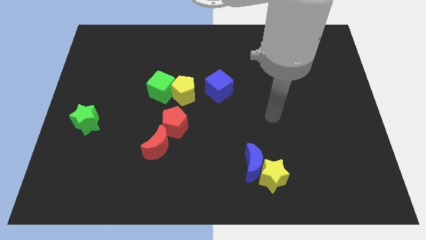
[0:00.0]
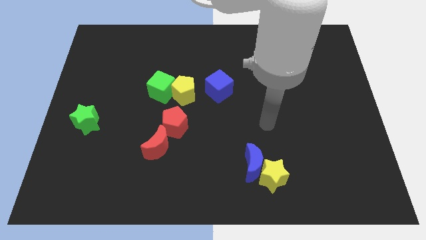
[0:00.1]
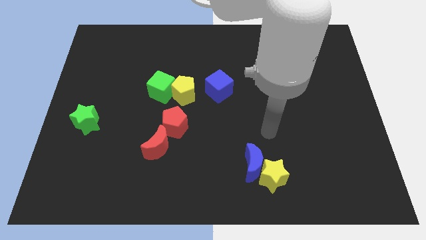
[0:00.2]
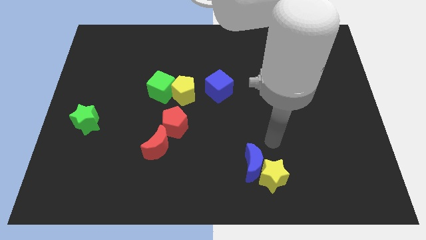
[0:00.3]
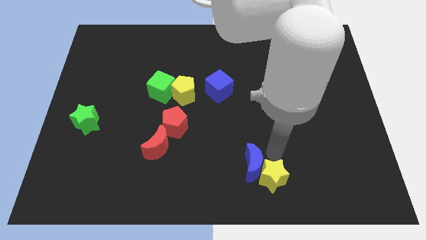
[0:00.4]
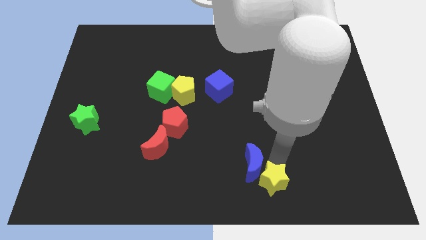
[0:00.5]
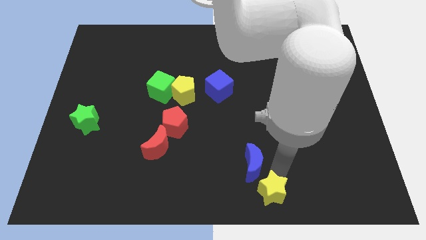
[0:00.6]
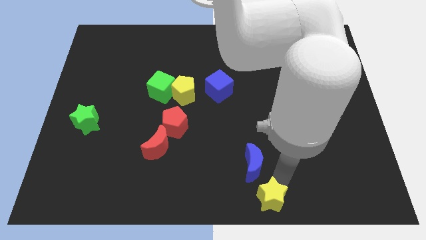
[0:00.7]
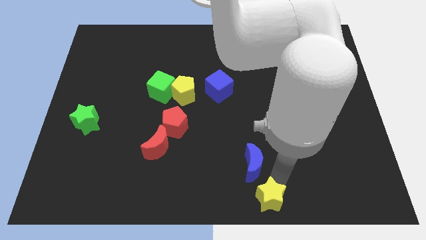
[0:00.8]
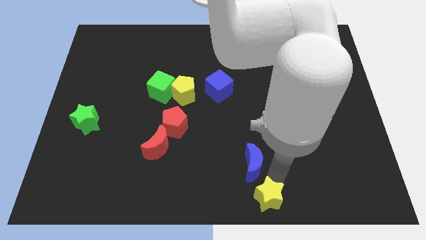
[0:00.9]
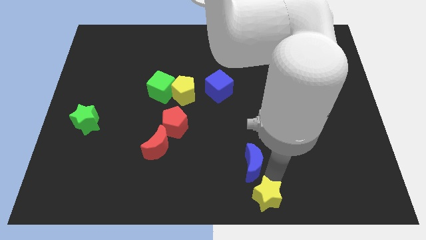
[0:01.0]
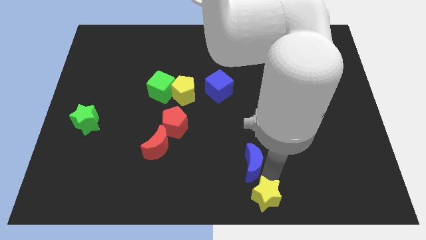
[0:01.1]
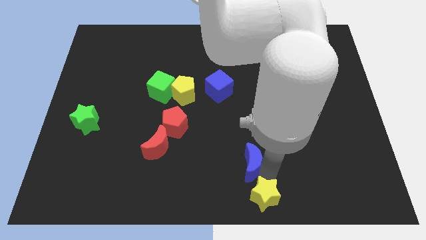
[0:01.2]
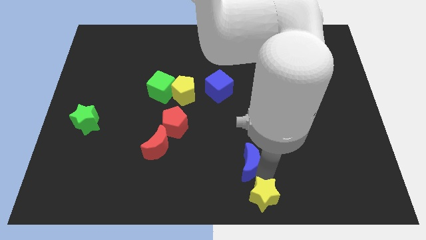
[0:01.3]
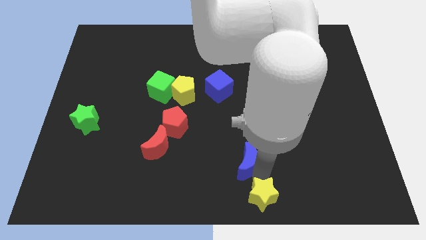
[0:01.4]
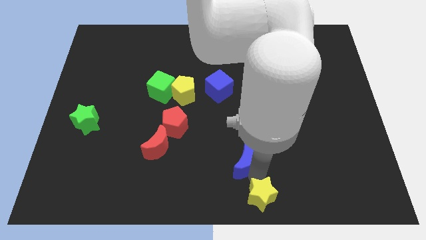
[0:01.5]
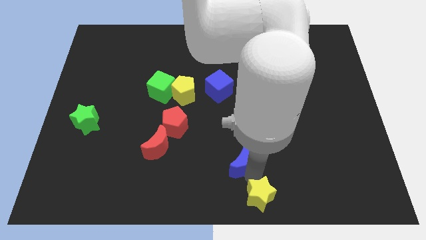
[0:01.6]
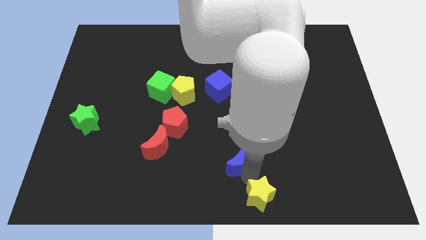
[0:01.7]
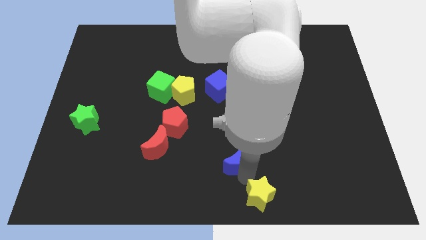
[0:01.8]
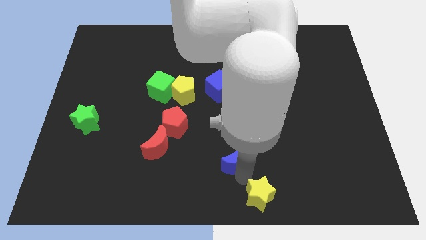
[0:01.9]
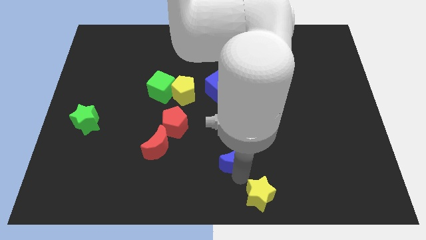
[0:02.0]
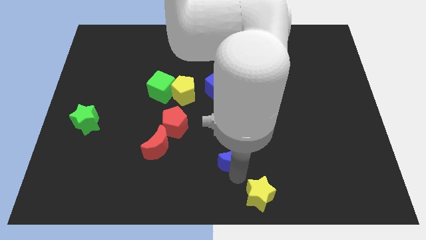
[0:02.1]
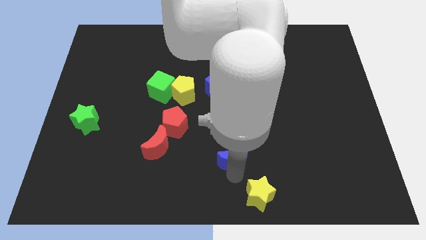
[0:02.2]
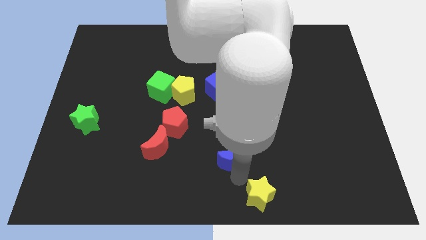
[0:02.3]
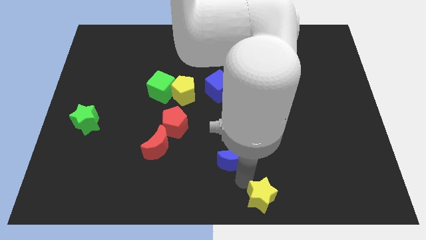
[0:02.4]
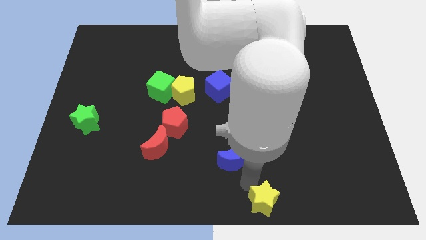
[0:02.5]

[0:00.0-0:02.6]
separate the blue moon from the yellow star

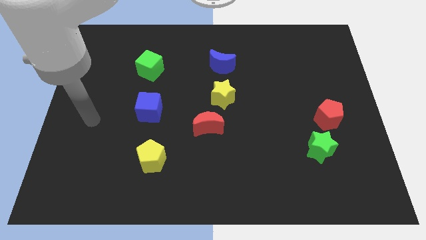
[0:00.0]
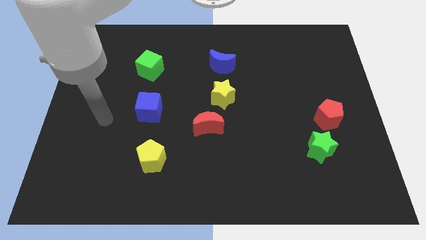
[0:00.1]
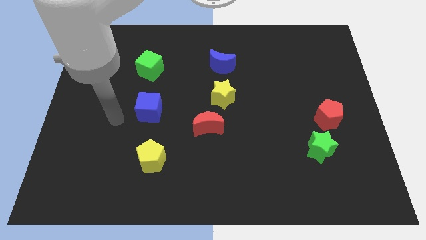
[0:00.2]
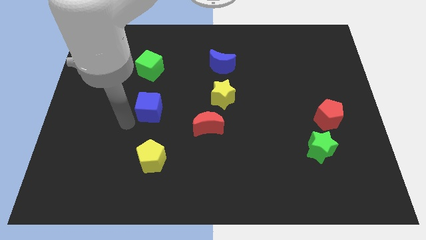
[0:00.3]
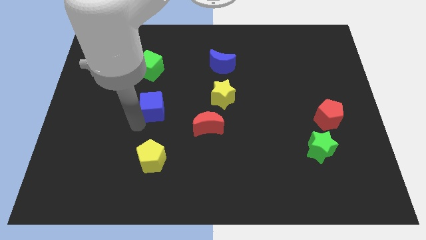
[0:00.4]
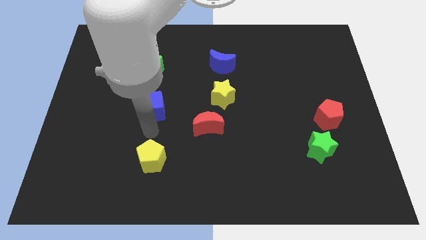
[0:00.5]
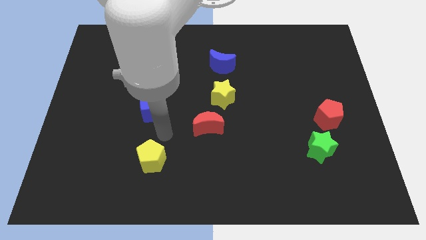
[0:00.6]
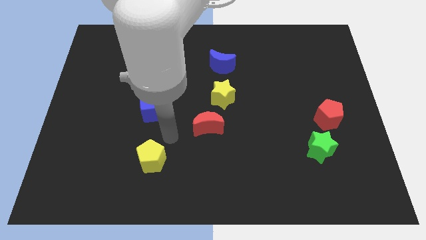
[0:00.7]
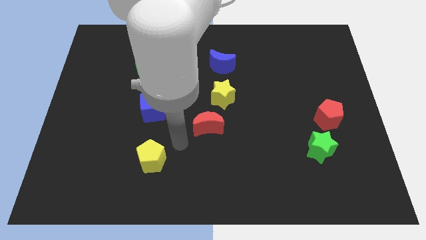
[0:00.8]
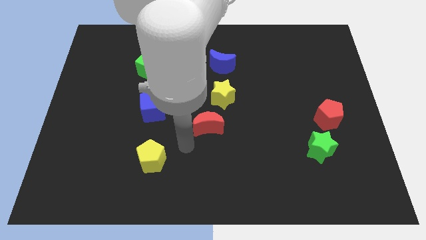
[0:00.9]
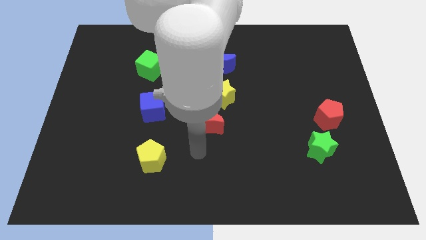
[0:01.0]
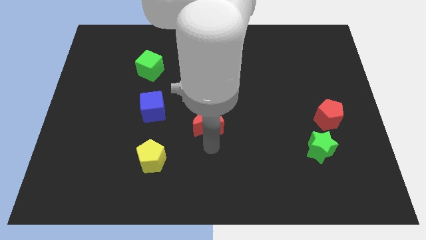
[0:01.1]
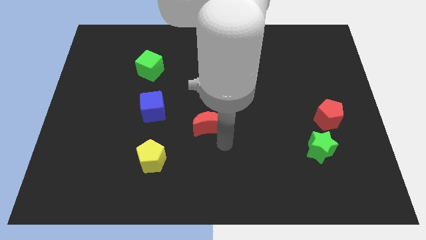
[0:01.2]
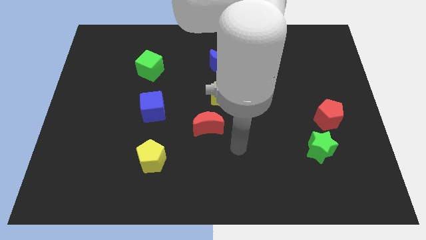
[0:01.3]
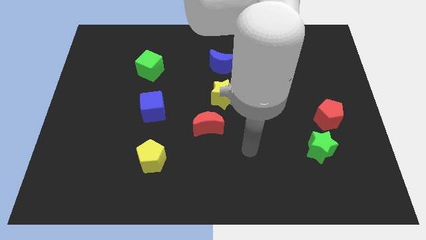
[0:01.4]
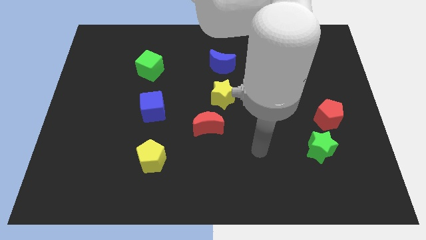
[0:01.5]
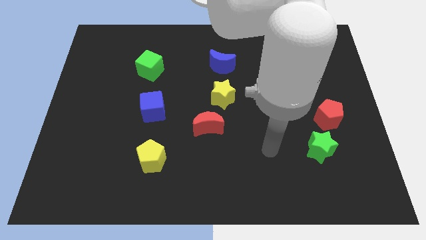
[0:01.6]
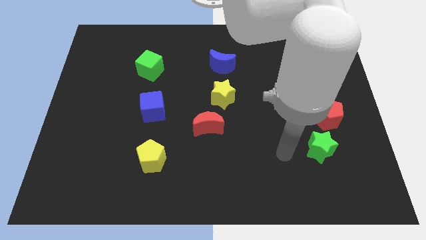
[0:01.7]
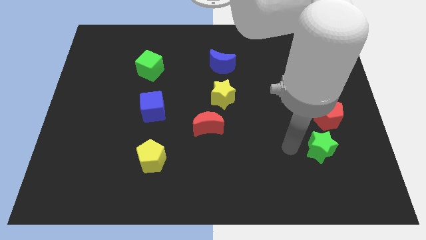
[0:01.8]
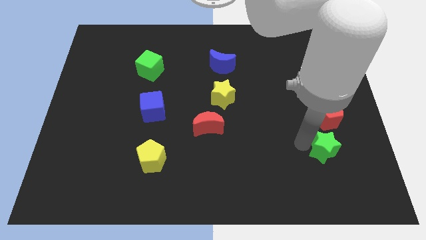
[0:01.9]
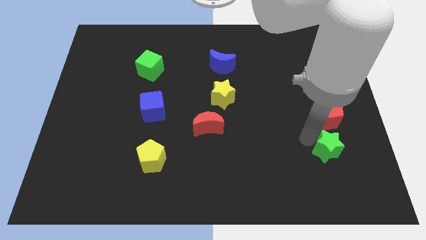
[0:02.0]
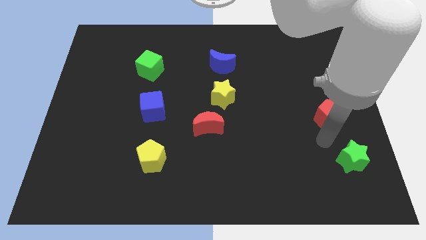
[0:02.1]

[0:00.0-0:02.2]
move the red pentagon away from the green star

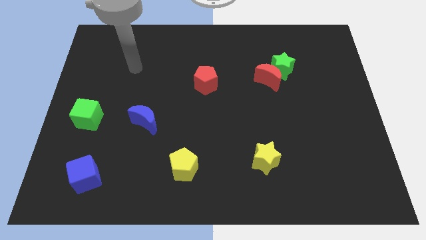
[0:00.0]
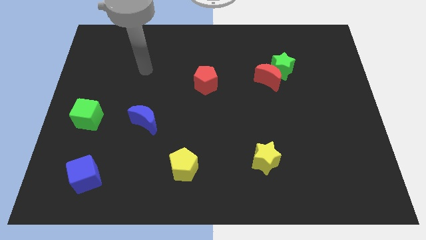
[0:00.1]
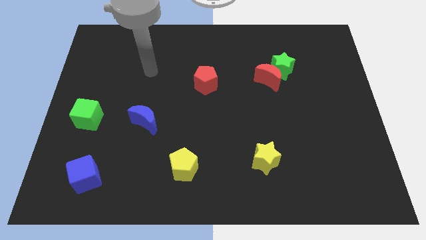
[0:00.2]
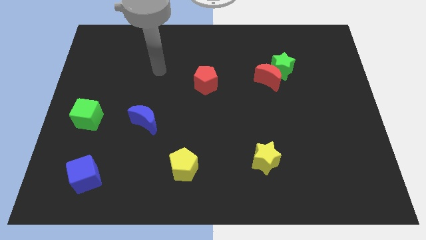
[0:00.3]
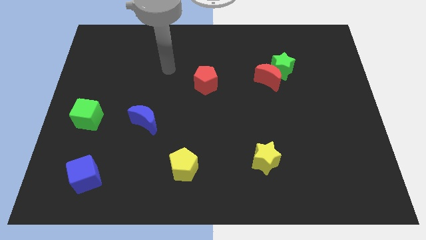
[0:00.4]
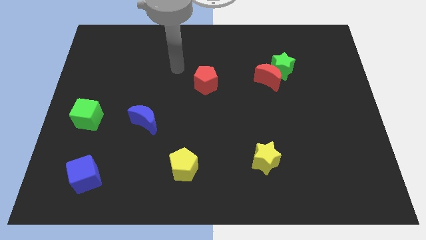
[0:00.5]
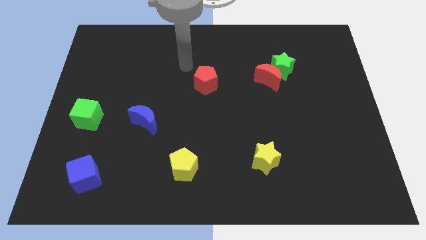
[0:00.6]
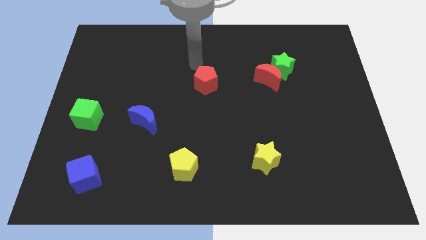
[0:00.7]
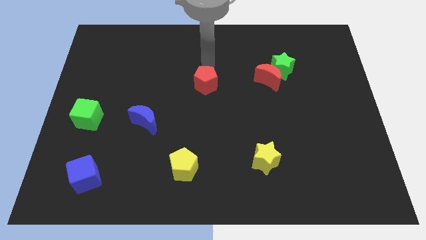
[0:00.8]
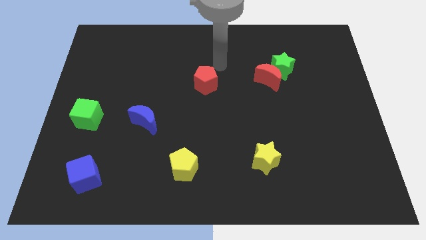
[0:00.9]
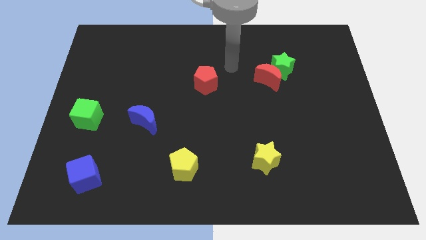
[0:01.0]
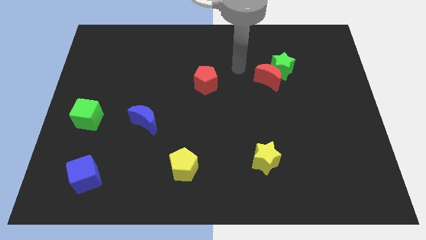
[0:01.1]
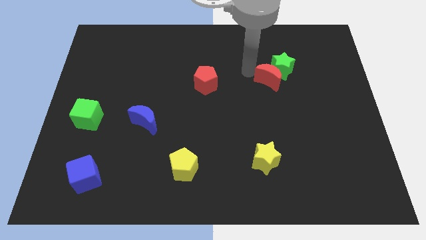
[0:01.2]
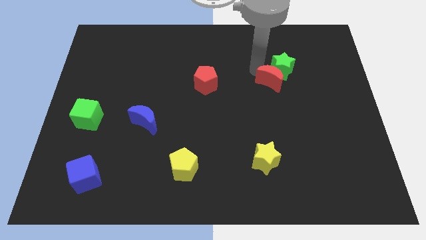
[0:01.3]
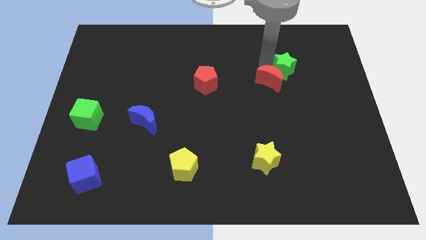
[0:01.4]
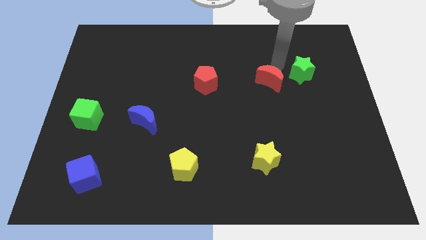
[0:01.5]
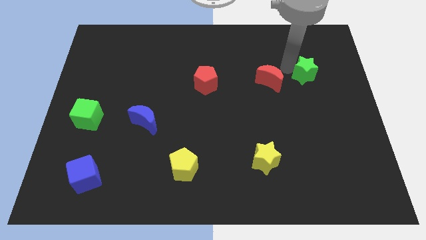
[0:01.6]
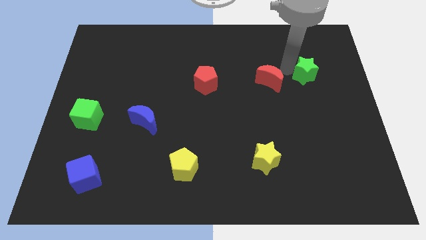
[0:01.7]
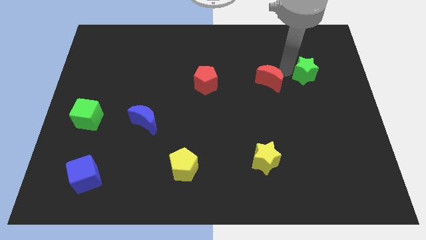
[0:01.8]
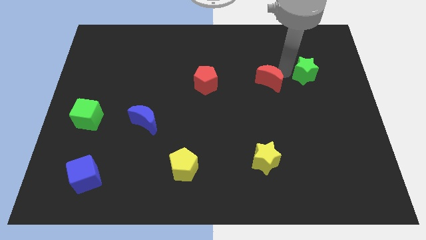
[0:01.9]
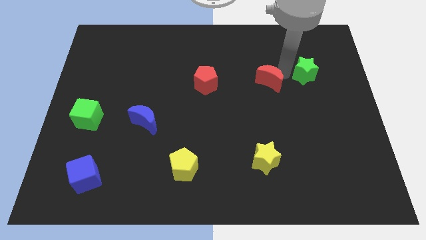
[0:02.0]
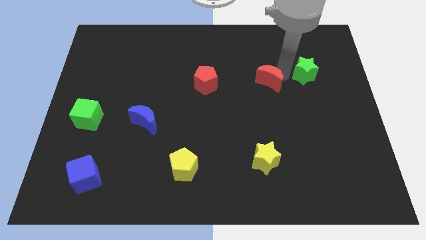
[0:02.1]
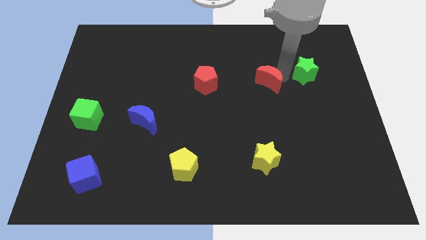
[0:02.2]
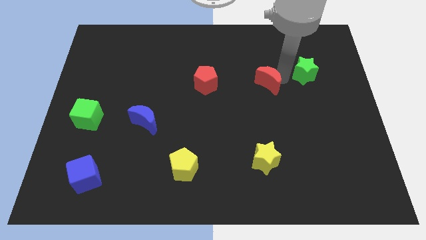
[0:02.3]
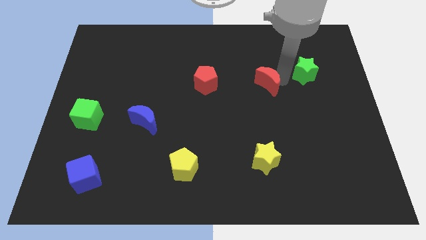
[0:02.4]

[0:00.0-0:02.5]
pull the red moon apart from the green star

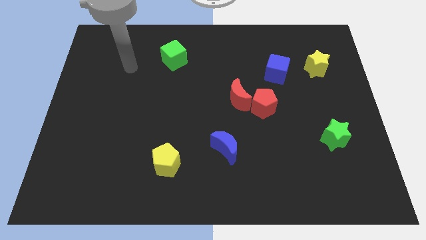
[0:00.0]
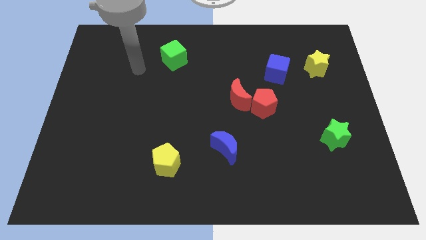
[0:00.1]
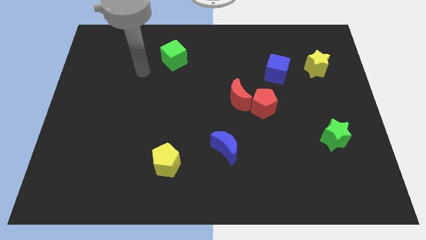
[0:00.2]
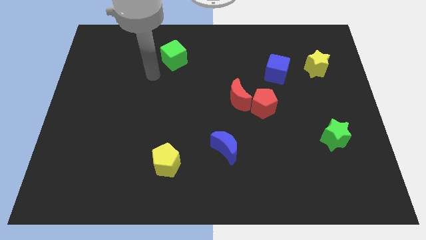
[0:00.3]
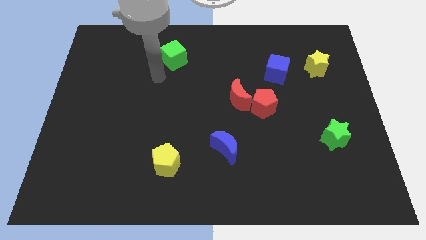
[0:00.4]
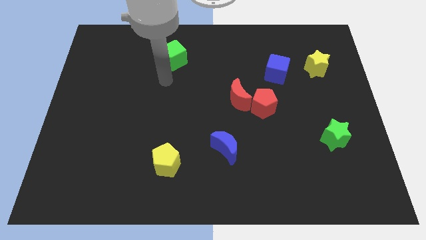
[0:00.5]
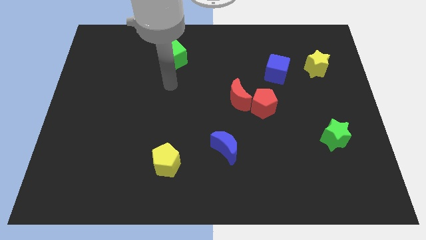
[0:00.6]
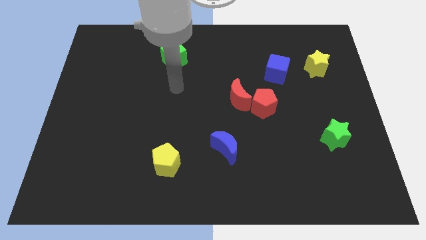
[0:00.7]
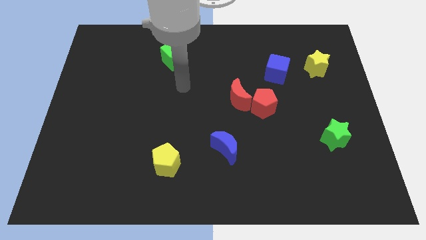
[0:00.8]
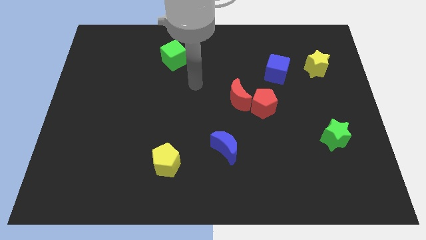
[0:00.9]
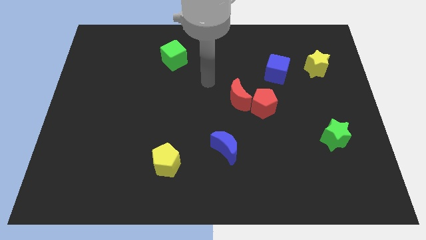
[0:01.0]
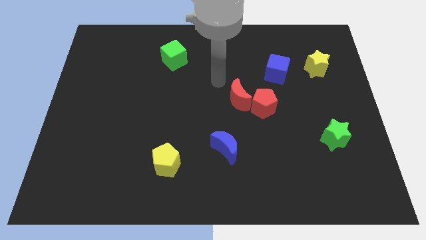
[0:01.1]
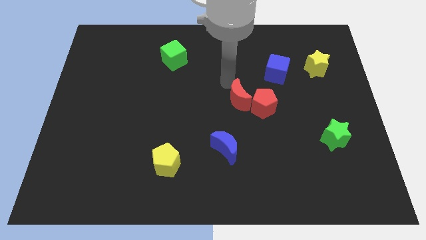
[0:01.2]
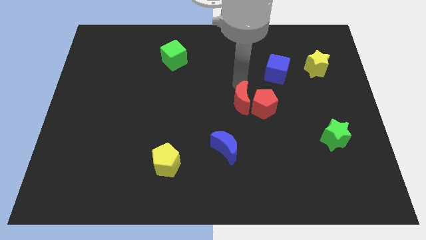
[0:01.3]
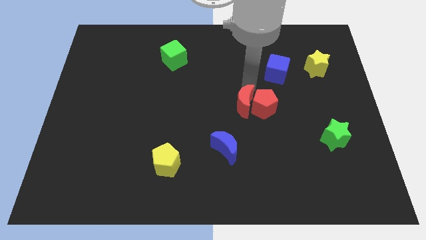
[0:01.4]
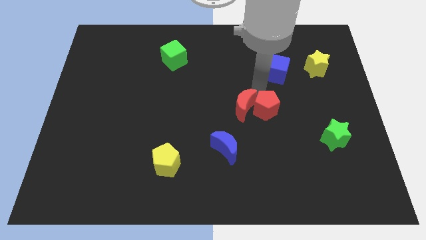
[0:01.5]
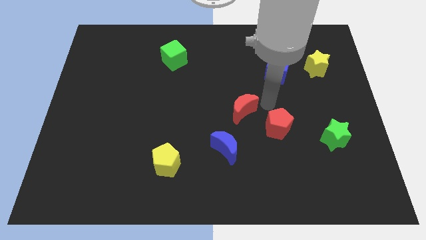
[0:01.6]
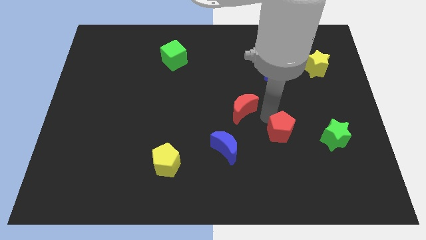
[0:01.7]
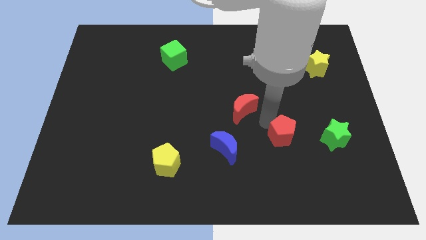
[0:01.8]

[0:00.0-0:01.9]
separate the red moon from the red pentagon

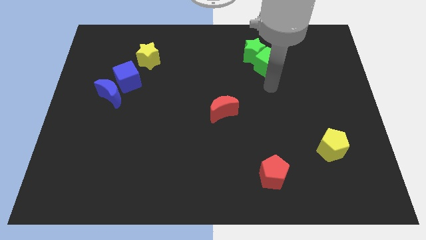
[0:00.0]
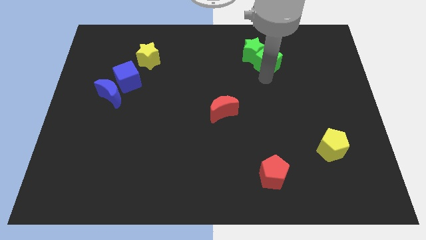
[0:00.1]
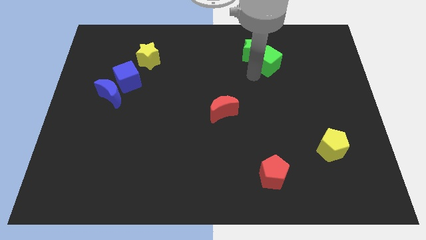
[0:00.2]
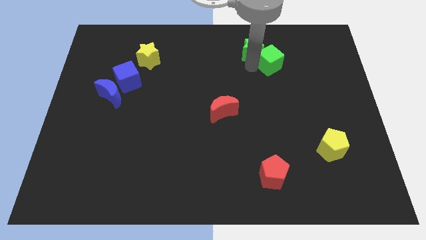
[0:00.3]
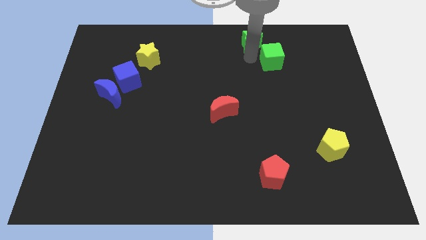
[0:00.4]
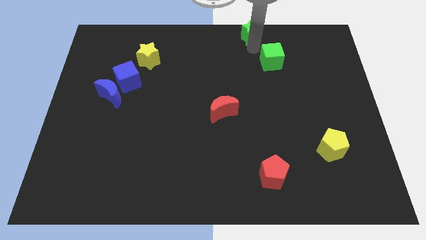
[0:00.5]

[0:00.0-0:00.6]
pull the green cube apart from the green star
